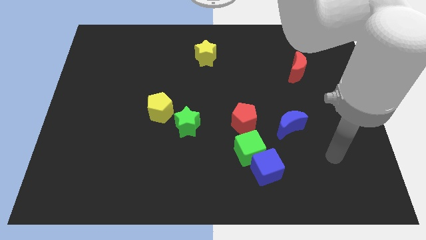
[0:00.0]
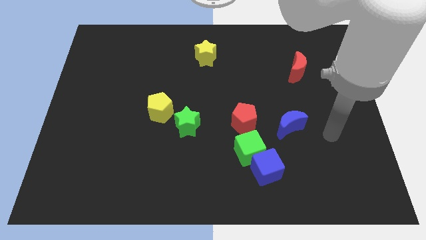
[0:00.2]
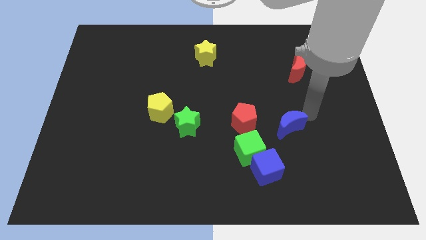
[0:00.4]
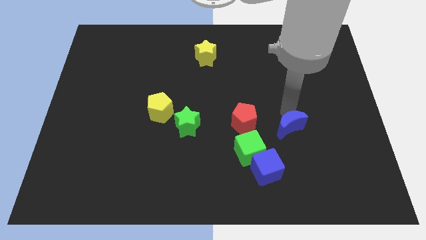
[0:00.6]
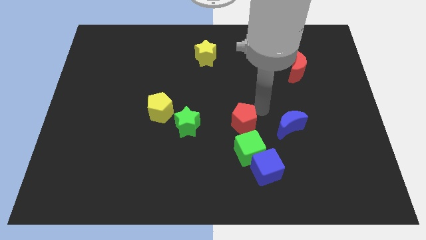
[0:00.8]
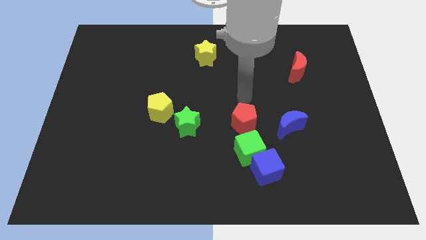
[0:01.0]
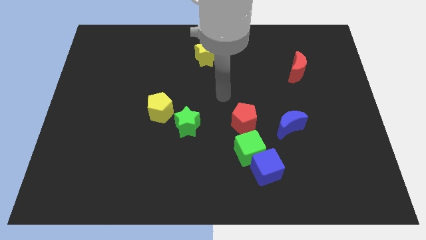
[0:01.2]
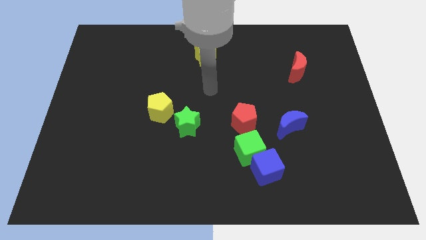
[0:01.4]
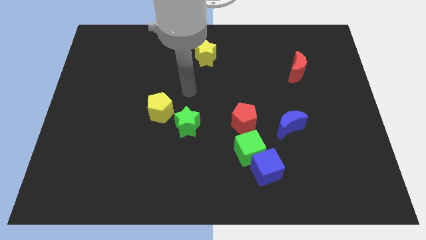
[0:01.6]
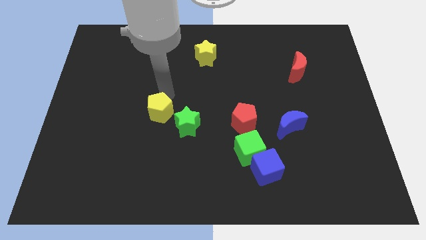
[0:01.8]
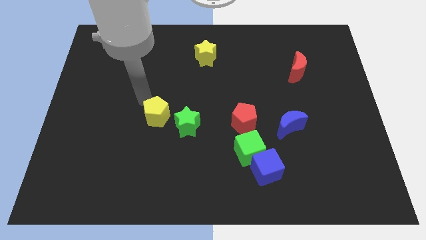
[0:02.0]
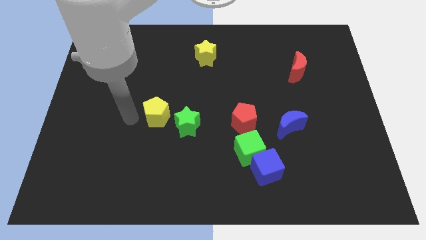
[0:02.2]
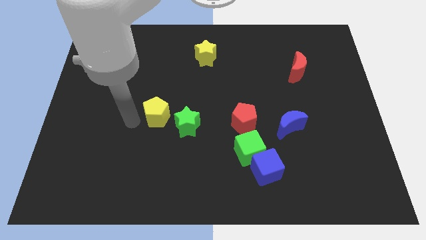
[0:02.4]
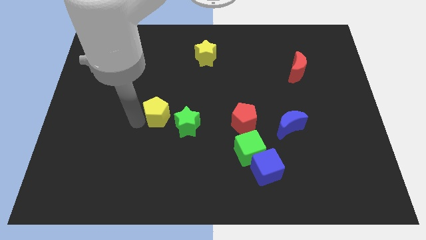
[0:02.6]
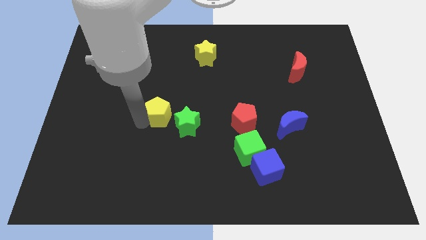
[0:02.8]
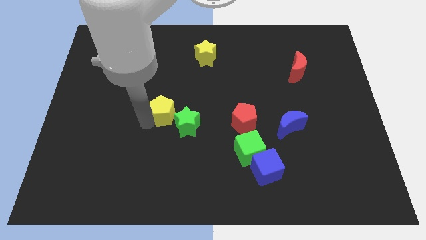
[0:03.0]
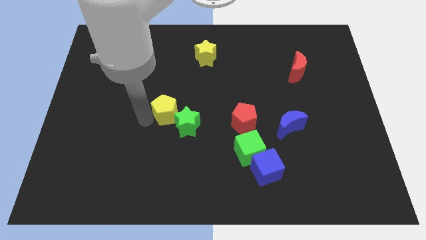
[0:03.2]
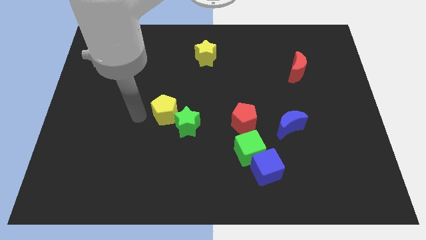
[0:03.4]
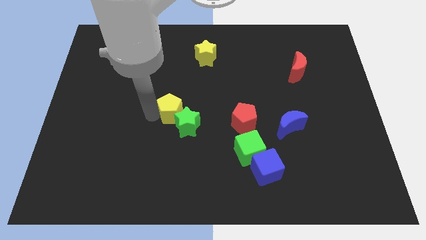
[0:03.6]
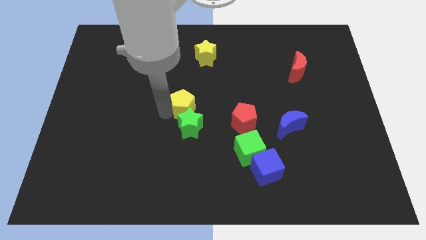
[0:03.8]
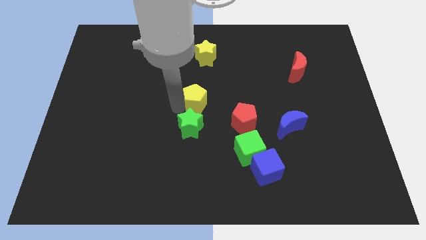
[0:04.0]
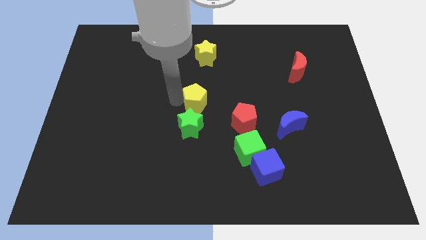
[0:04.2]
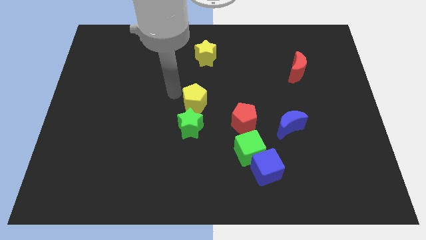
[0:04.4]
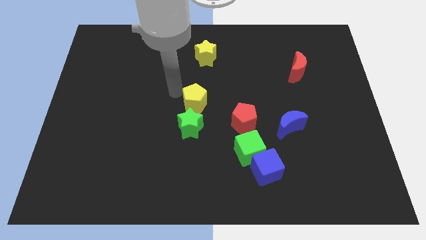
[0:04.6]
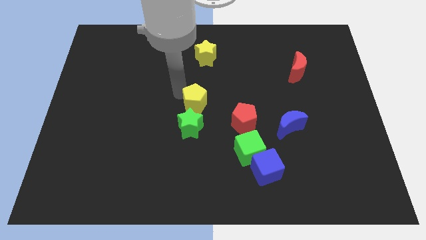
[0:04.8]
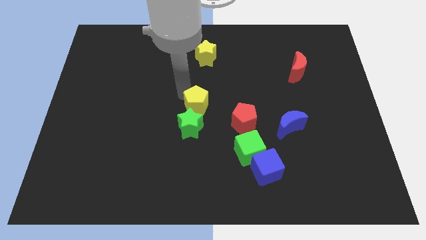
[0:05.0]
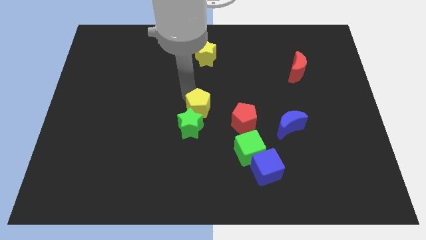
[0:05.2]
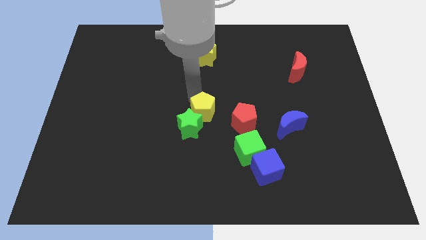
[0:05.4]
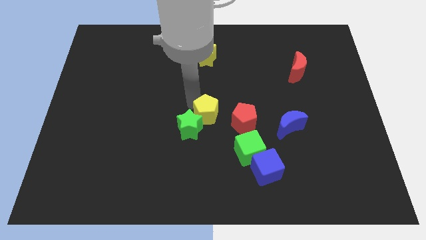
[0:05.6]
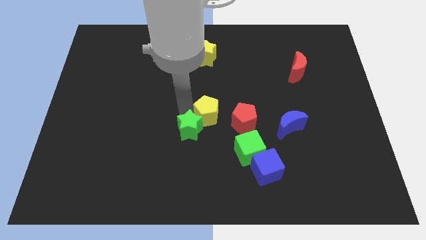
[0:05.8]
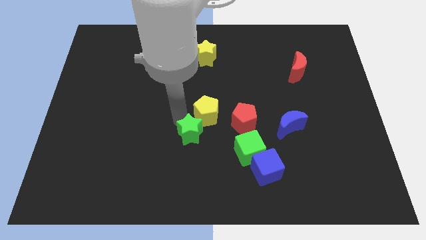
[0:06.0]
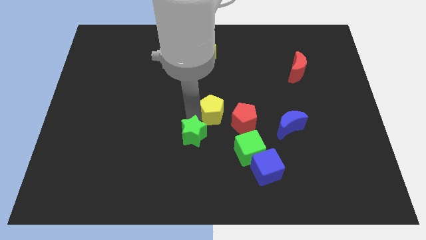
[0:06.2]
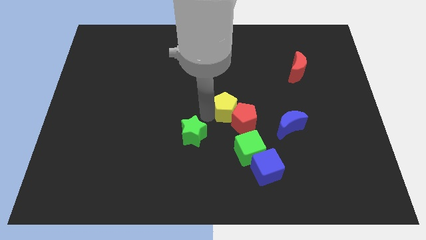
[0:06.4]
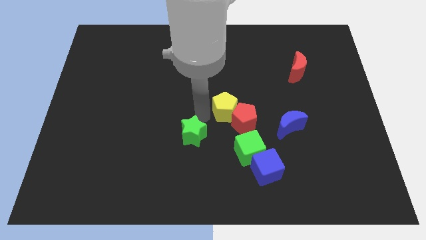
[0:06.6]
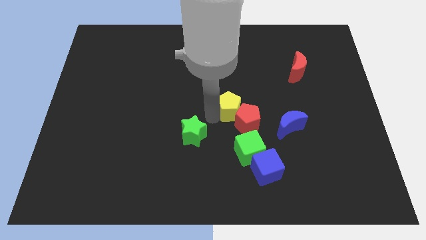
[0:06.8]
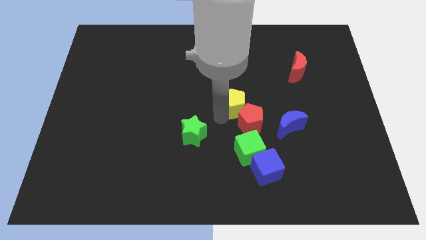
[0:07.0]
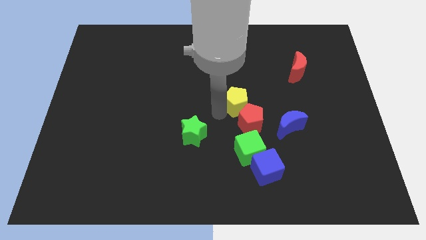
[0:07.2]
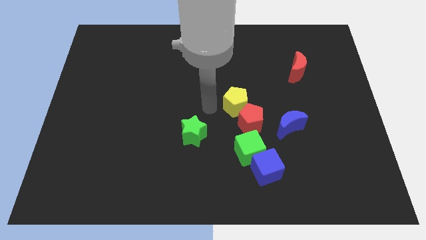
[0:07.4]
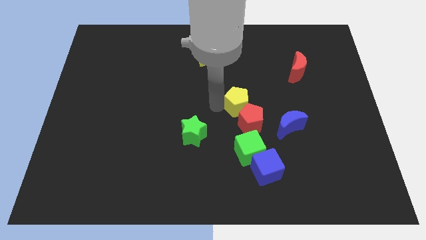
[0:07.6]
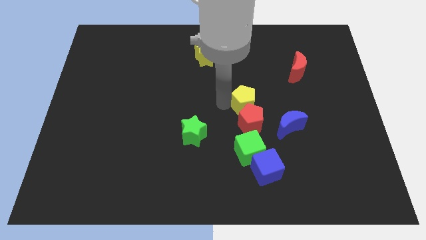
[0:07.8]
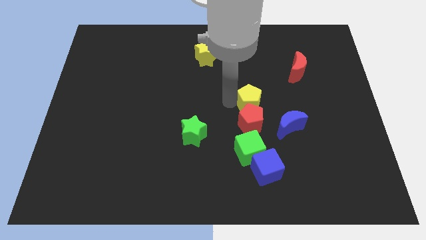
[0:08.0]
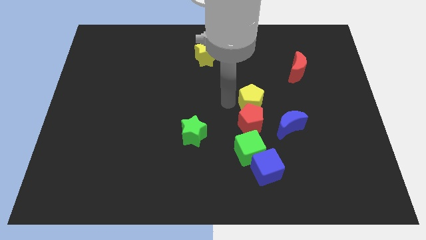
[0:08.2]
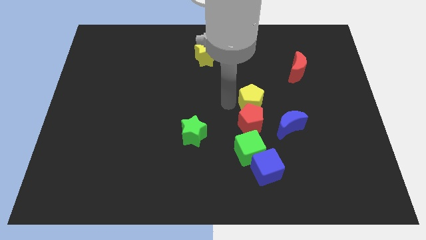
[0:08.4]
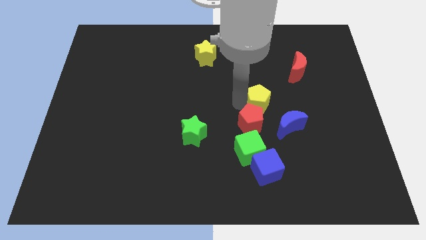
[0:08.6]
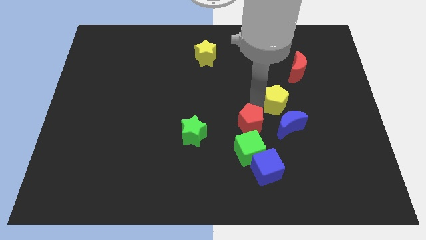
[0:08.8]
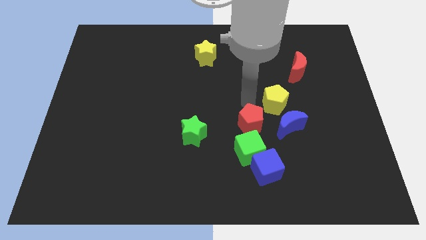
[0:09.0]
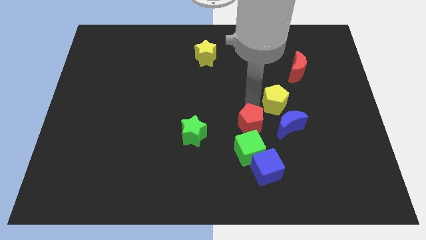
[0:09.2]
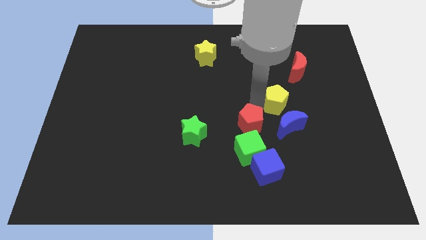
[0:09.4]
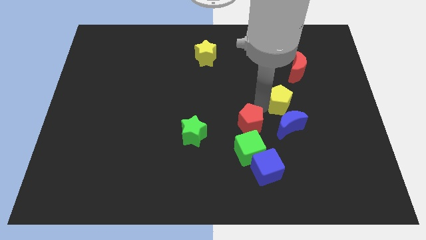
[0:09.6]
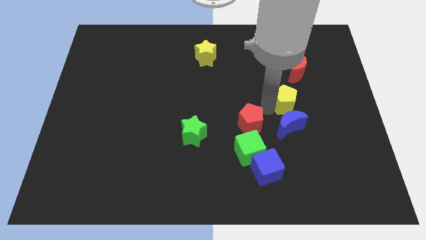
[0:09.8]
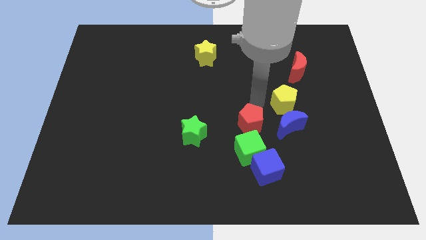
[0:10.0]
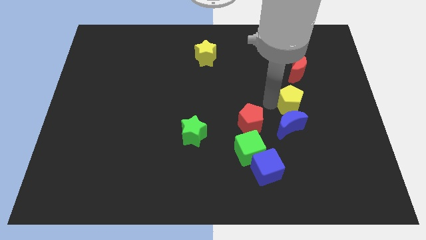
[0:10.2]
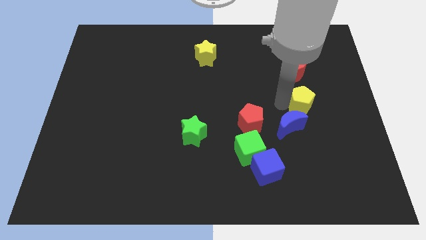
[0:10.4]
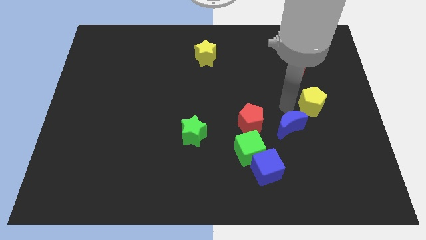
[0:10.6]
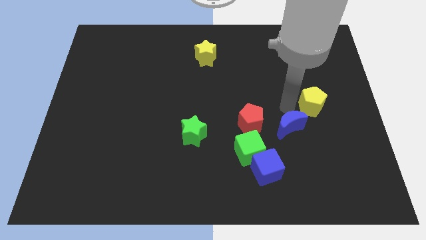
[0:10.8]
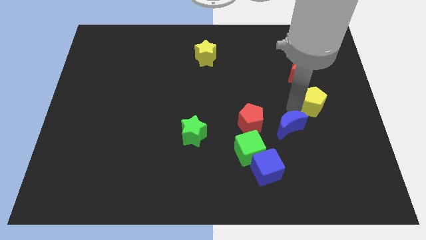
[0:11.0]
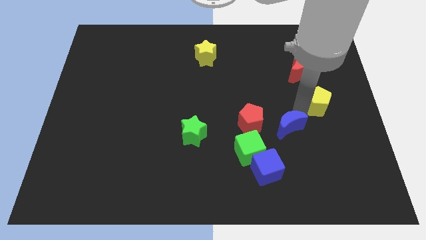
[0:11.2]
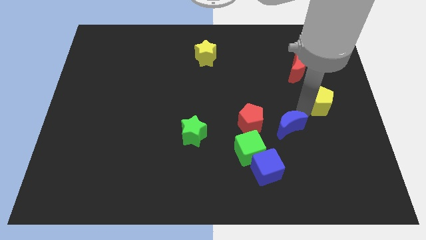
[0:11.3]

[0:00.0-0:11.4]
move the yellow pentagon to the center right
